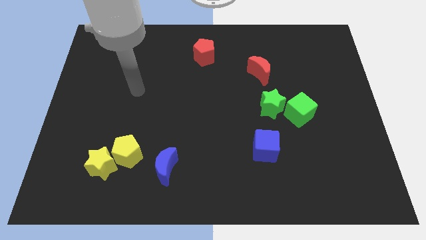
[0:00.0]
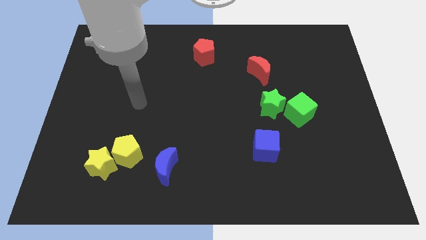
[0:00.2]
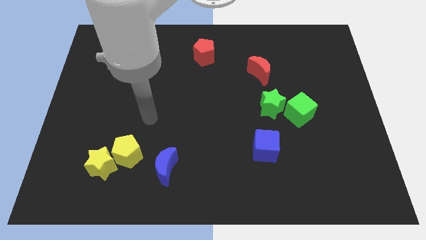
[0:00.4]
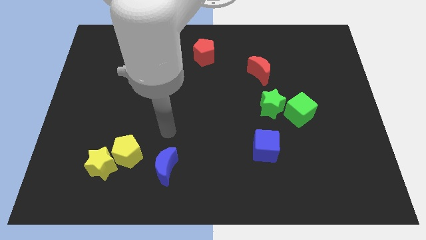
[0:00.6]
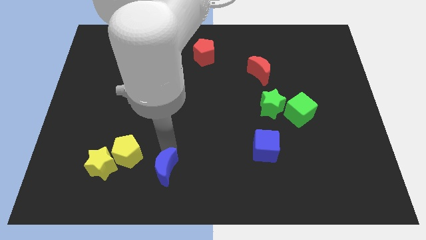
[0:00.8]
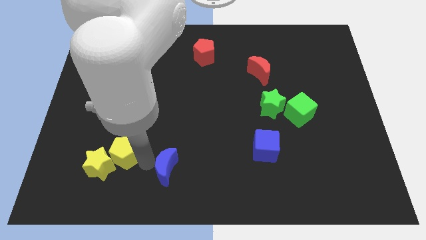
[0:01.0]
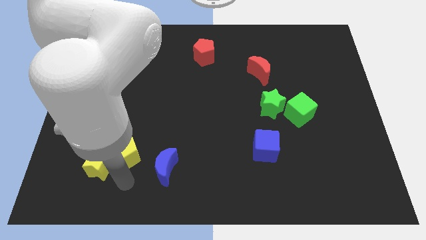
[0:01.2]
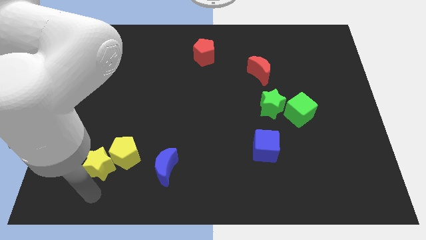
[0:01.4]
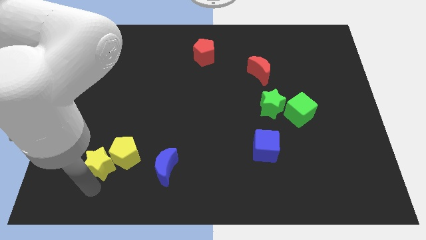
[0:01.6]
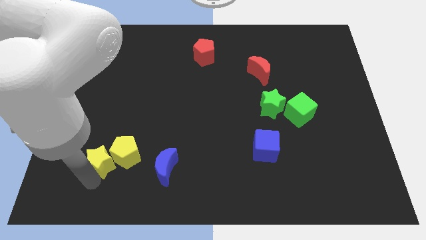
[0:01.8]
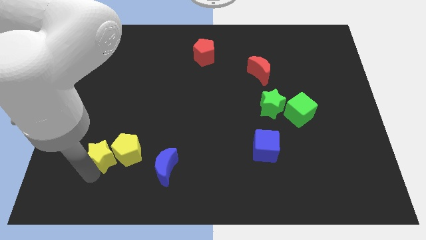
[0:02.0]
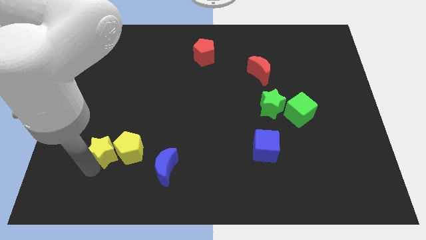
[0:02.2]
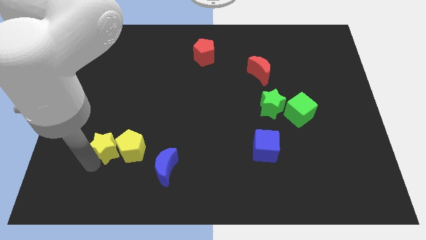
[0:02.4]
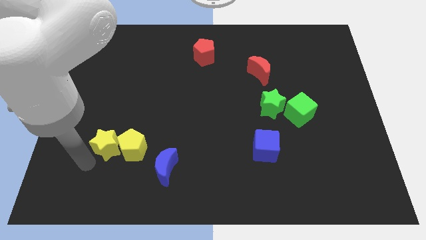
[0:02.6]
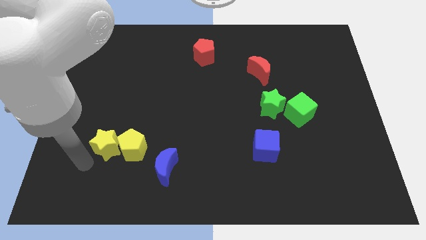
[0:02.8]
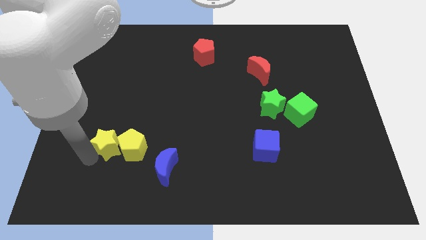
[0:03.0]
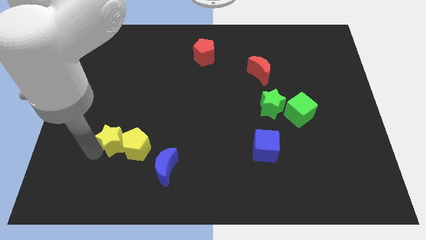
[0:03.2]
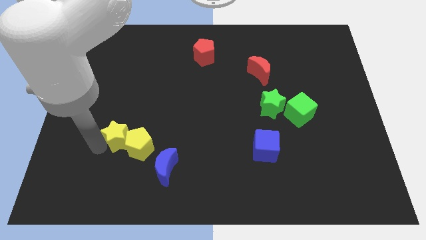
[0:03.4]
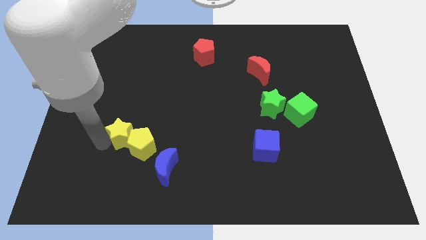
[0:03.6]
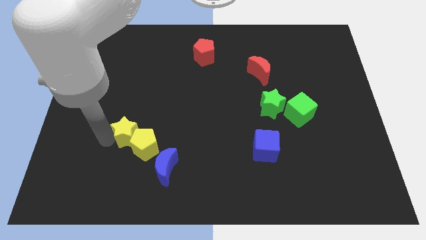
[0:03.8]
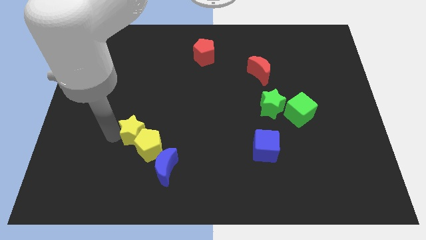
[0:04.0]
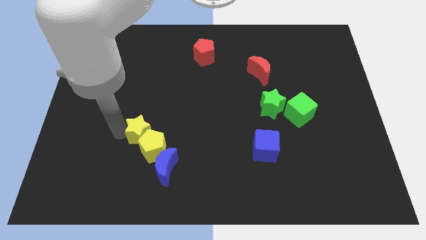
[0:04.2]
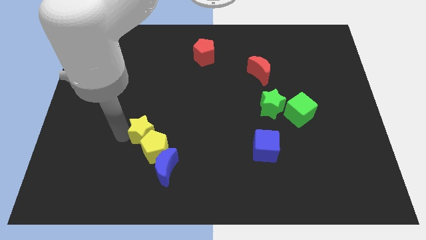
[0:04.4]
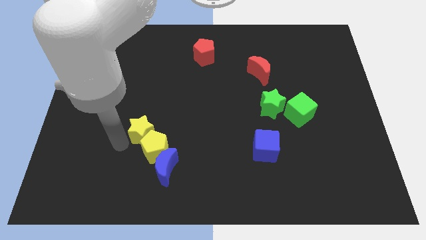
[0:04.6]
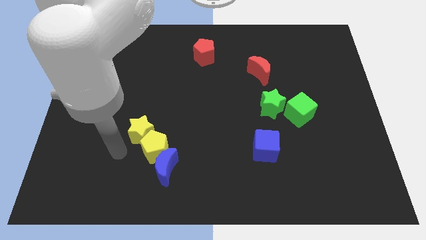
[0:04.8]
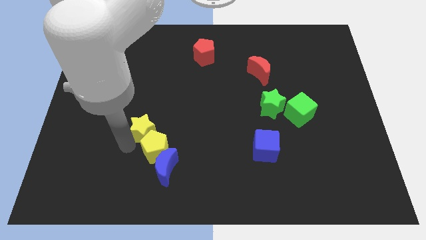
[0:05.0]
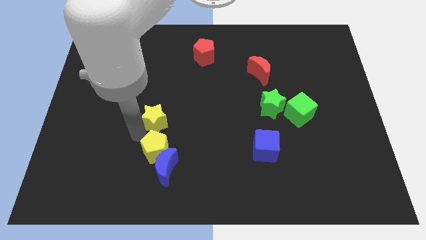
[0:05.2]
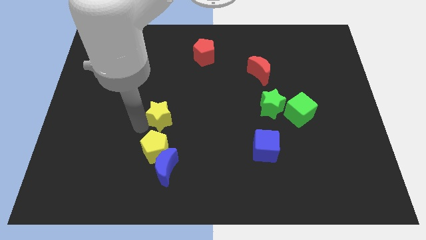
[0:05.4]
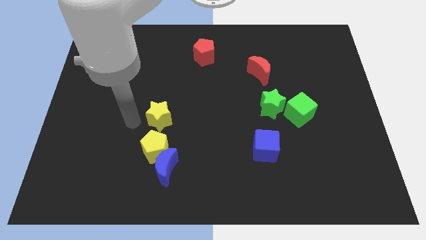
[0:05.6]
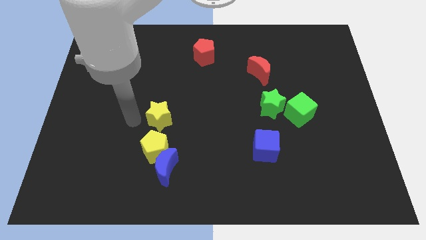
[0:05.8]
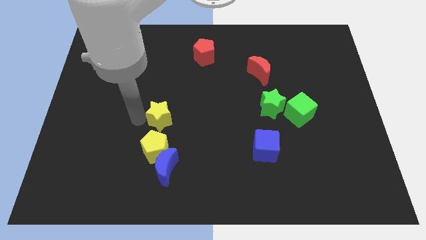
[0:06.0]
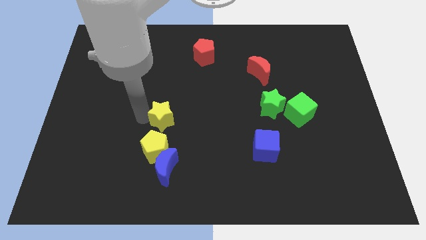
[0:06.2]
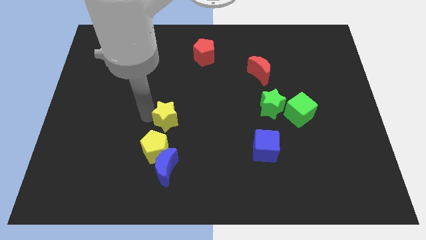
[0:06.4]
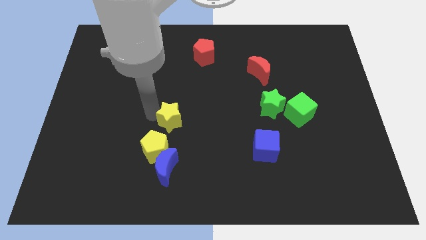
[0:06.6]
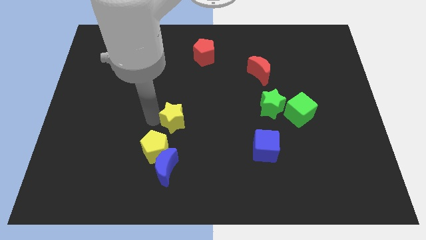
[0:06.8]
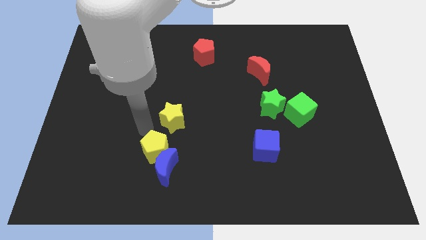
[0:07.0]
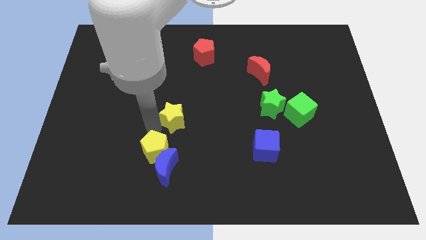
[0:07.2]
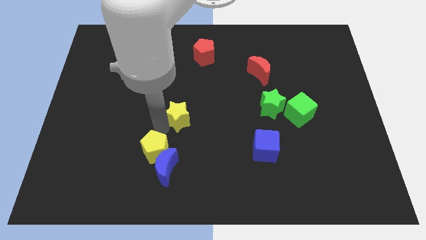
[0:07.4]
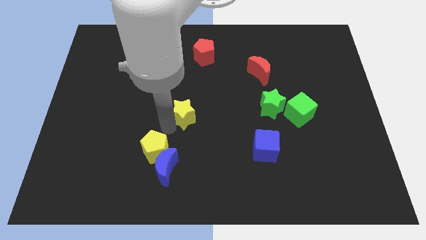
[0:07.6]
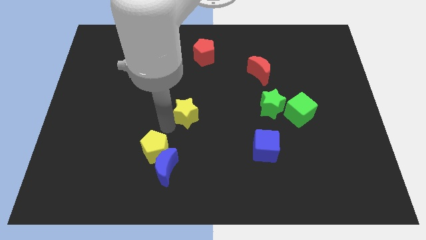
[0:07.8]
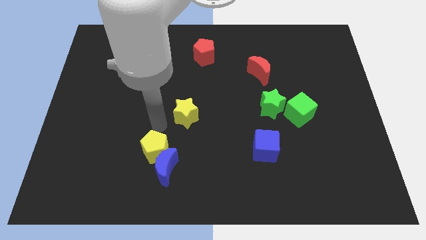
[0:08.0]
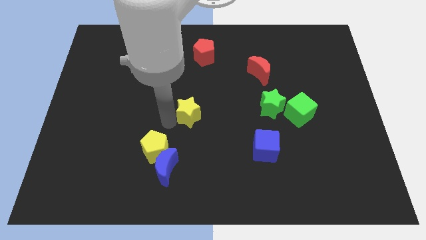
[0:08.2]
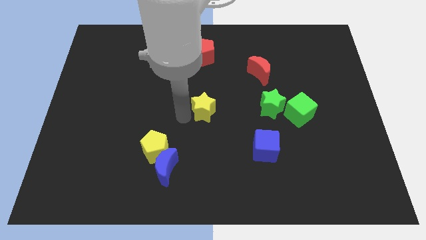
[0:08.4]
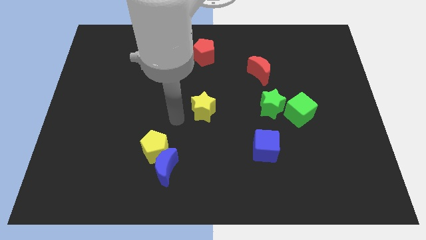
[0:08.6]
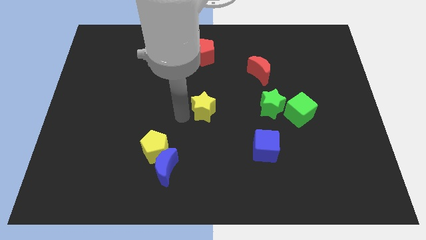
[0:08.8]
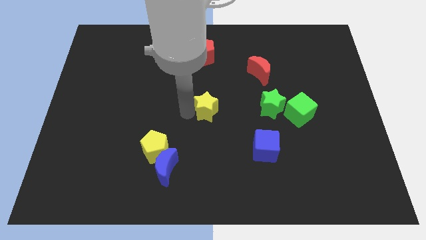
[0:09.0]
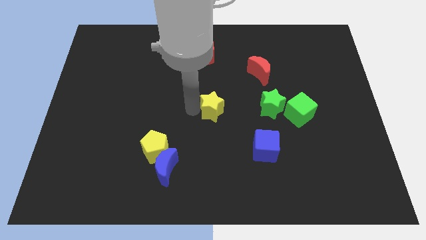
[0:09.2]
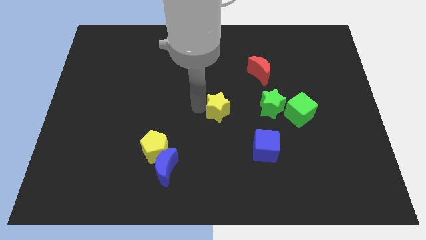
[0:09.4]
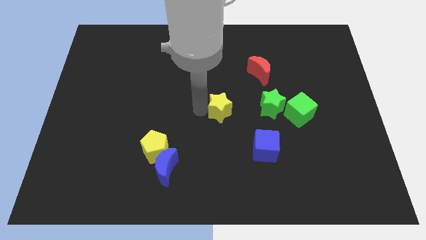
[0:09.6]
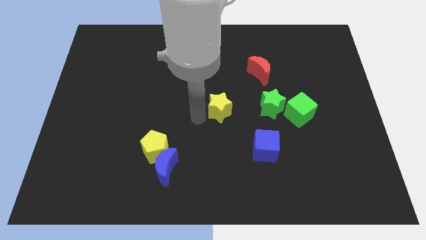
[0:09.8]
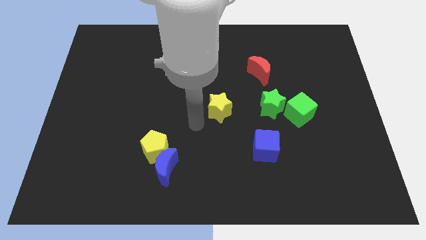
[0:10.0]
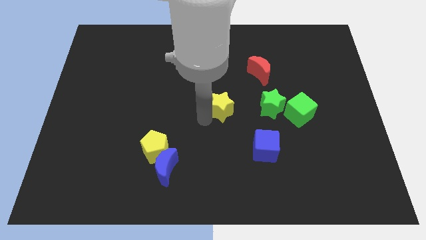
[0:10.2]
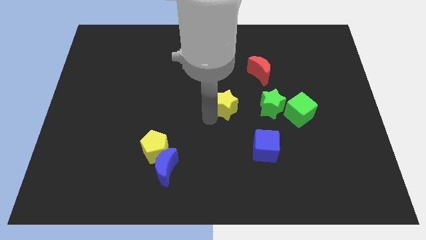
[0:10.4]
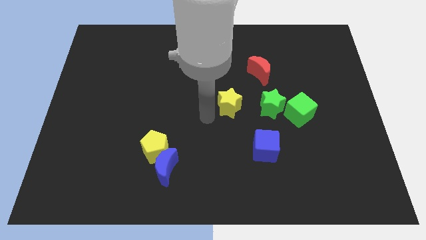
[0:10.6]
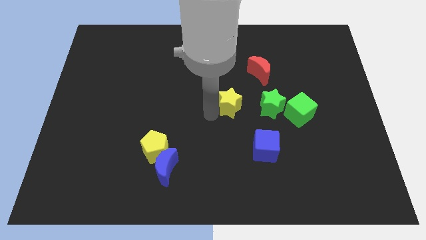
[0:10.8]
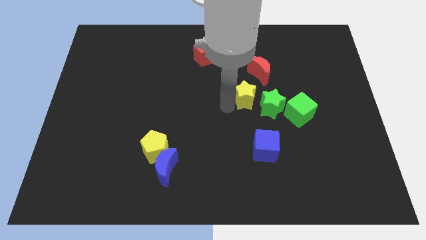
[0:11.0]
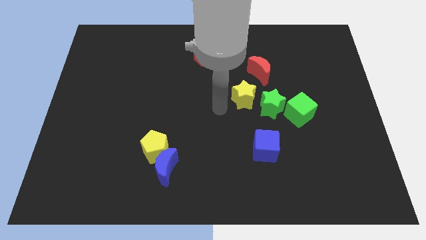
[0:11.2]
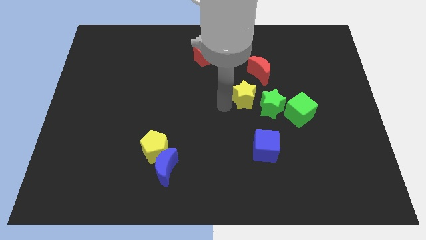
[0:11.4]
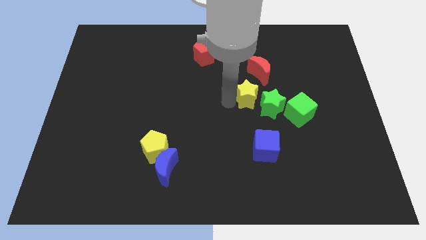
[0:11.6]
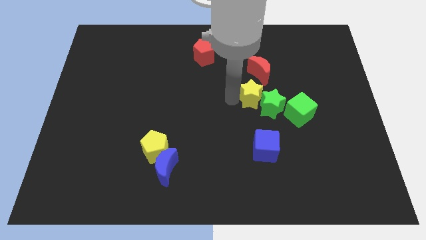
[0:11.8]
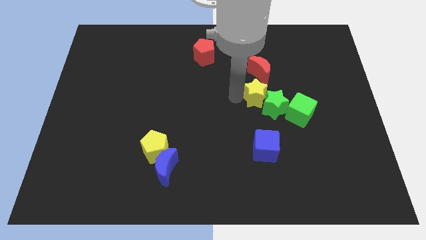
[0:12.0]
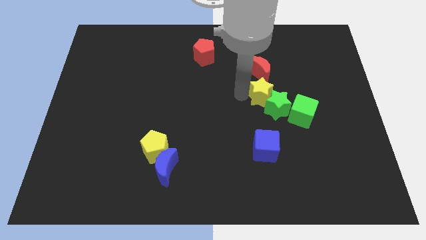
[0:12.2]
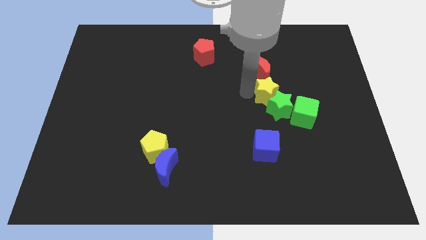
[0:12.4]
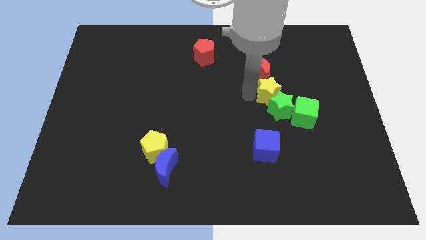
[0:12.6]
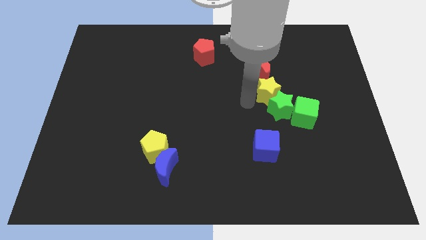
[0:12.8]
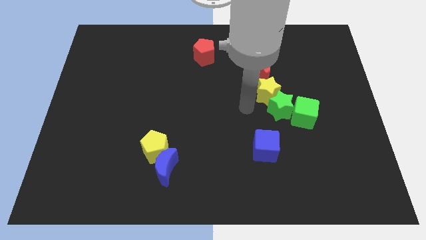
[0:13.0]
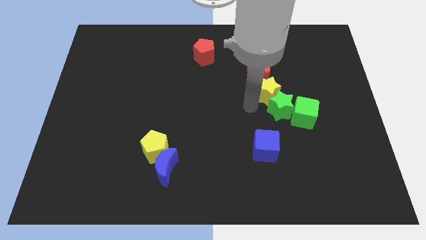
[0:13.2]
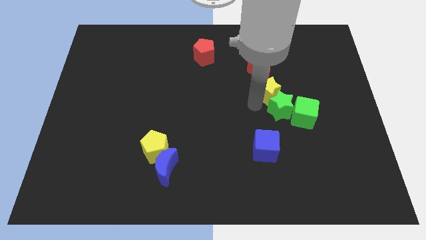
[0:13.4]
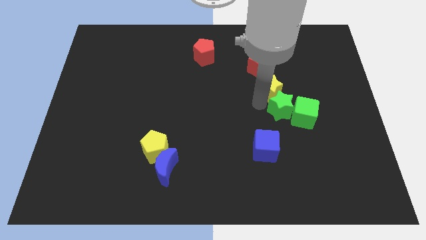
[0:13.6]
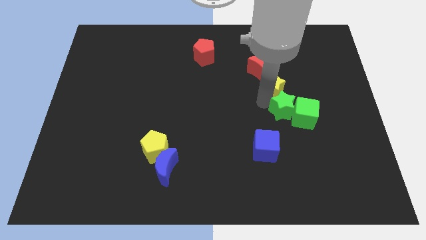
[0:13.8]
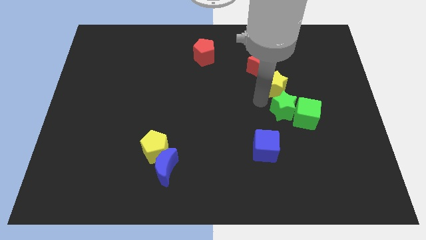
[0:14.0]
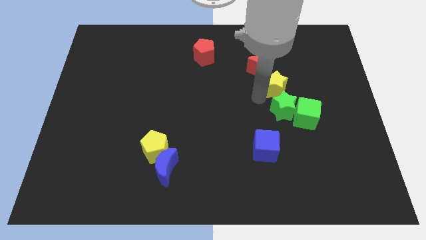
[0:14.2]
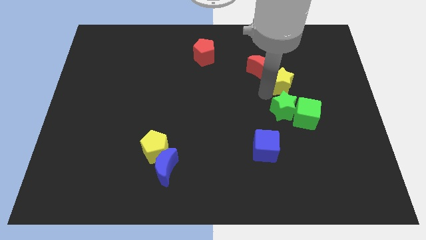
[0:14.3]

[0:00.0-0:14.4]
slide the yellow star to the right side of the red moon
